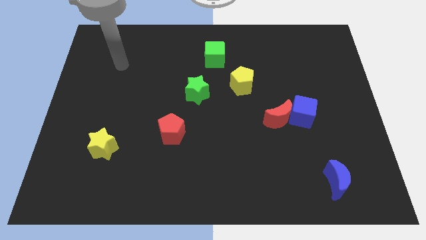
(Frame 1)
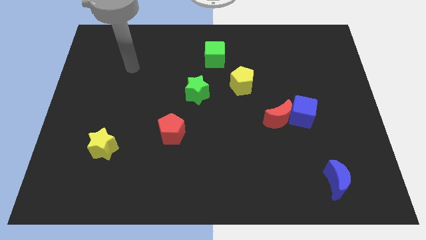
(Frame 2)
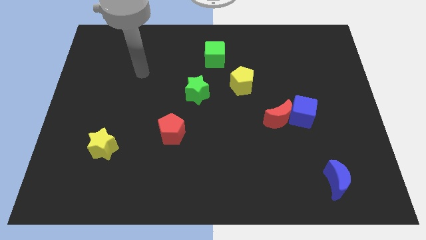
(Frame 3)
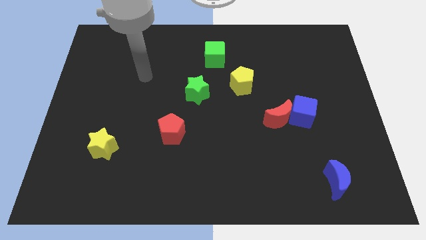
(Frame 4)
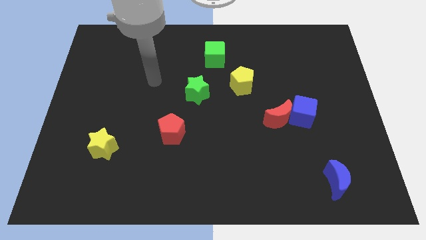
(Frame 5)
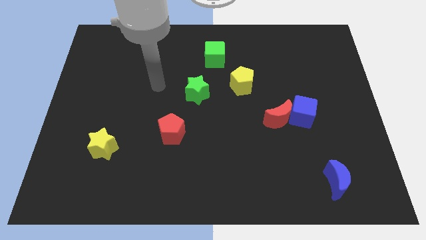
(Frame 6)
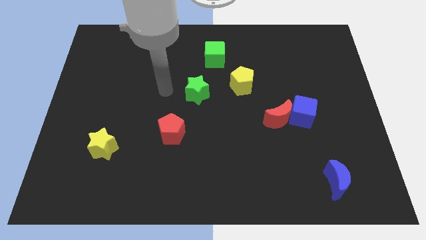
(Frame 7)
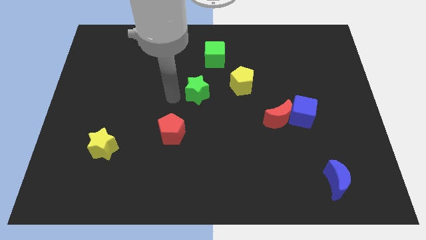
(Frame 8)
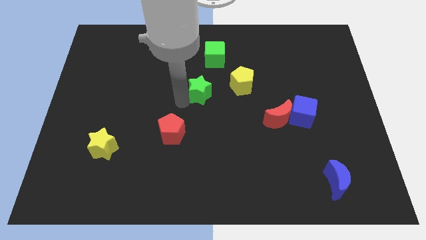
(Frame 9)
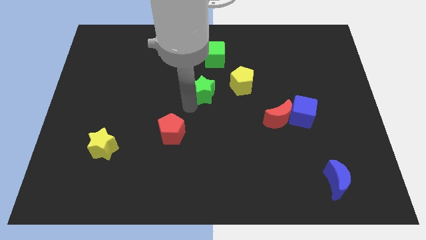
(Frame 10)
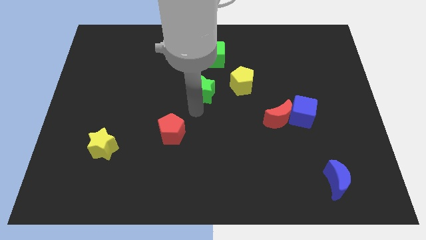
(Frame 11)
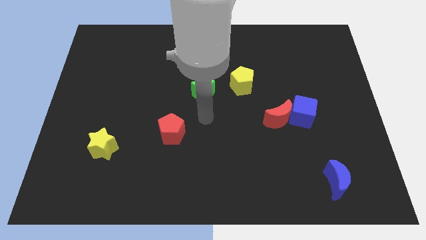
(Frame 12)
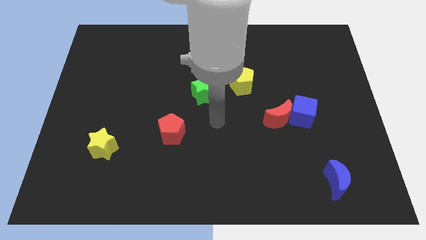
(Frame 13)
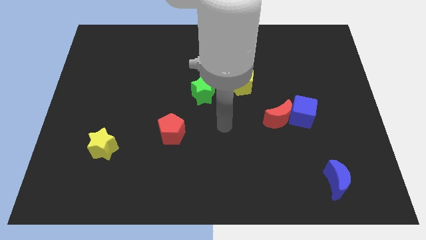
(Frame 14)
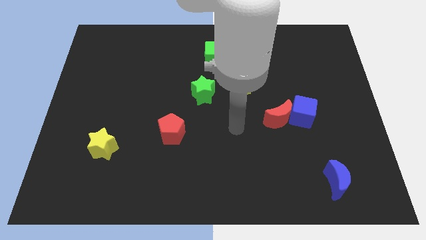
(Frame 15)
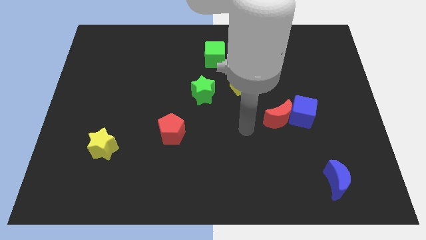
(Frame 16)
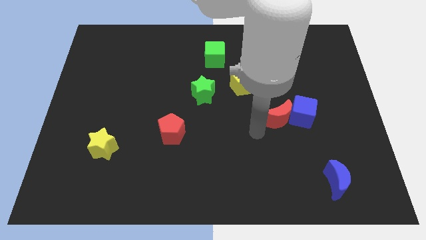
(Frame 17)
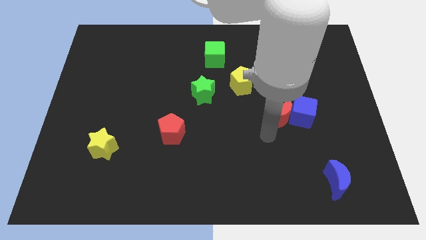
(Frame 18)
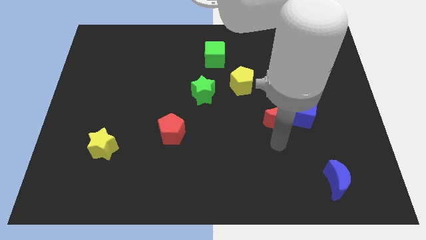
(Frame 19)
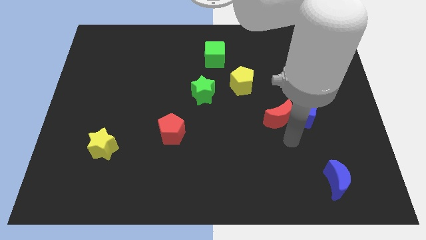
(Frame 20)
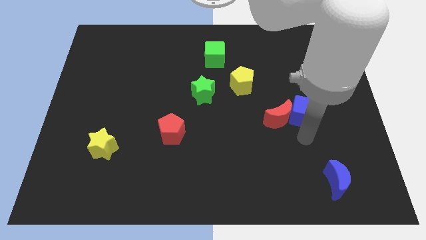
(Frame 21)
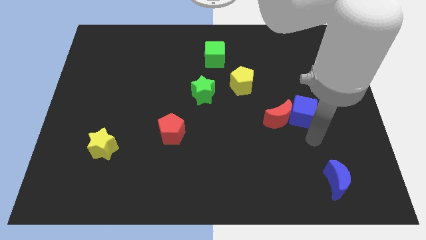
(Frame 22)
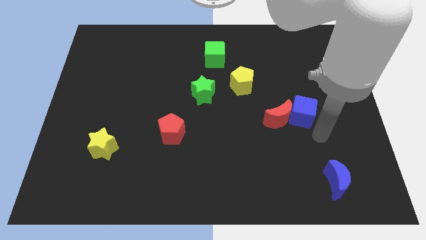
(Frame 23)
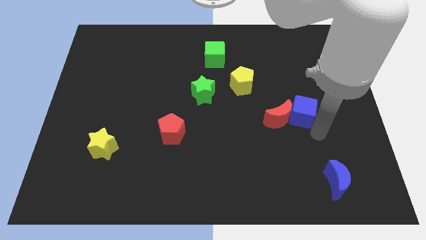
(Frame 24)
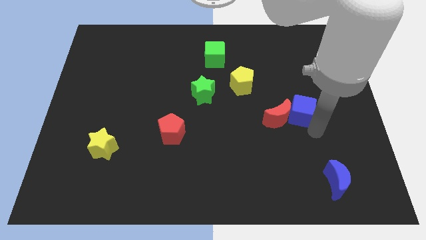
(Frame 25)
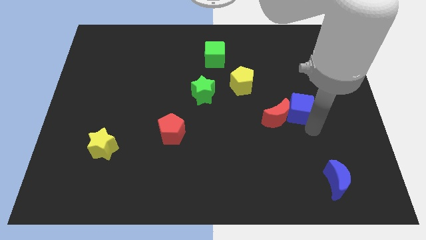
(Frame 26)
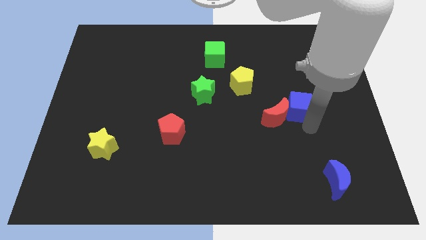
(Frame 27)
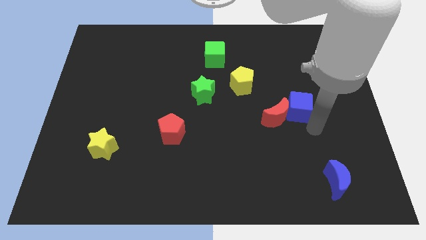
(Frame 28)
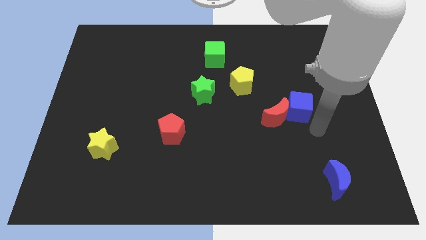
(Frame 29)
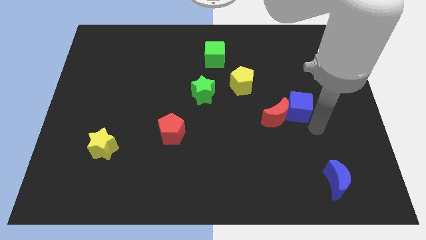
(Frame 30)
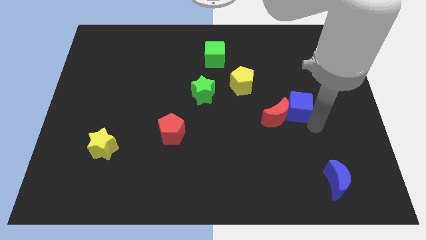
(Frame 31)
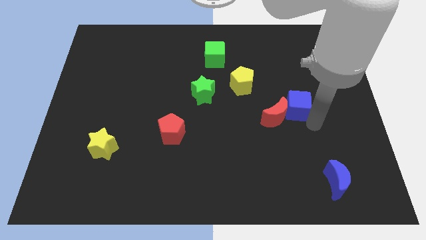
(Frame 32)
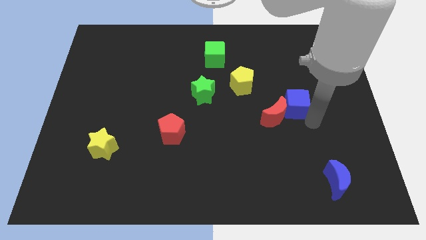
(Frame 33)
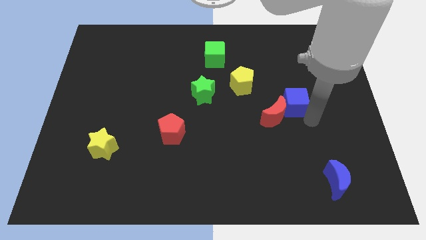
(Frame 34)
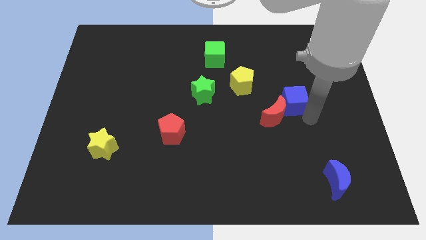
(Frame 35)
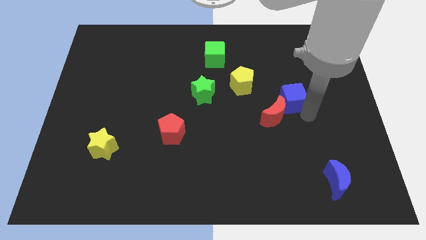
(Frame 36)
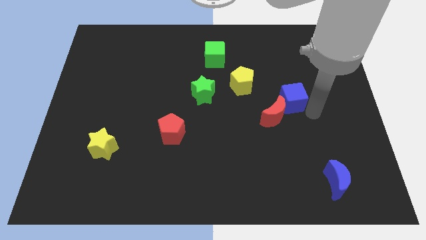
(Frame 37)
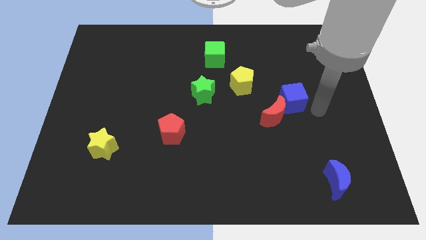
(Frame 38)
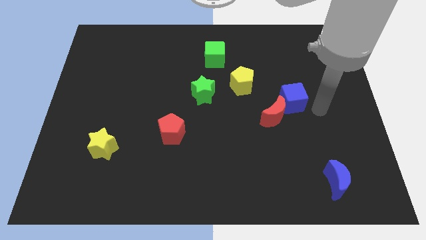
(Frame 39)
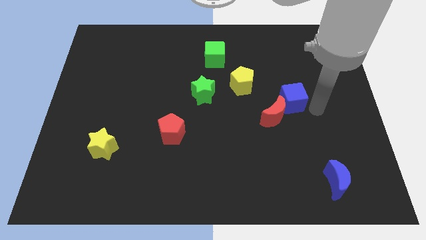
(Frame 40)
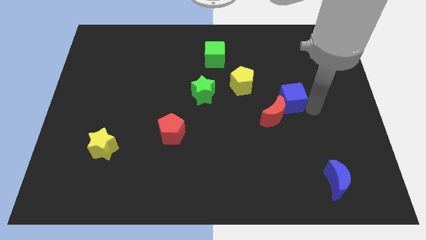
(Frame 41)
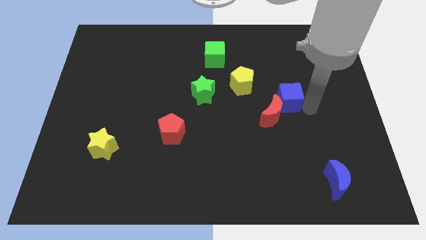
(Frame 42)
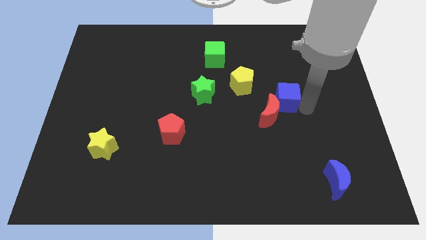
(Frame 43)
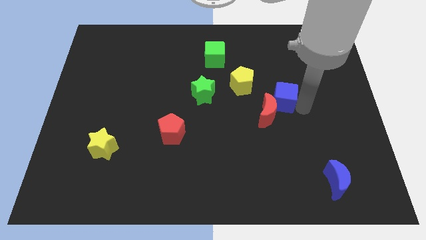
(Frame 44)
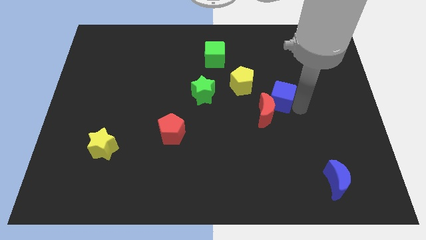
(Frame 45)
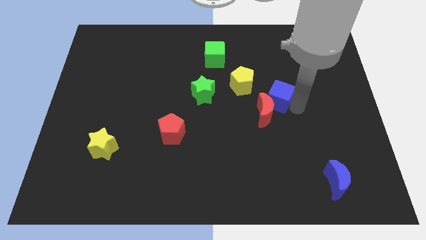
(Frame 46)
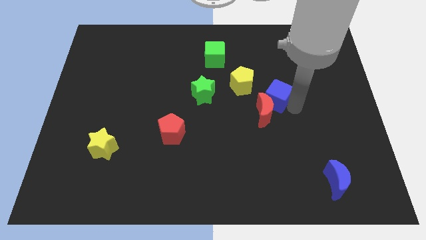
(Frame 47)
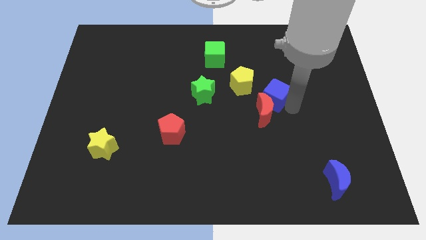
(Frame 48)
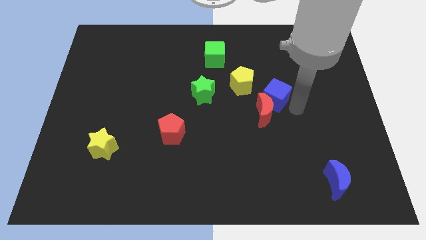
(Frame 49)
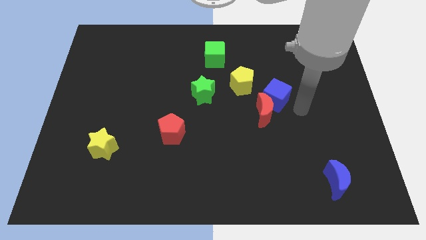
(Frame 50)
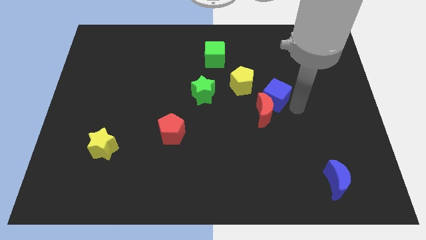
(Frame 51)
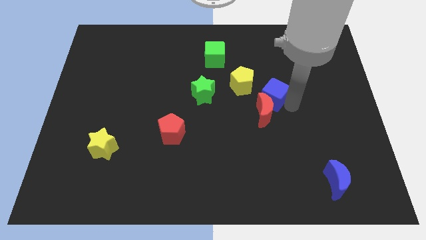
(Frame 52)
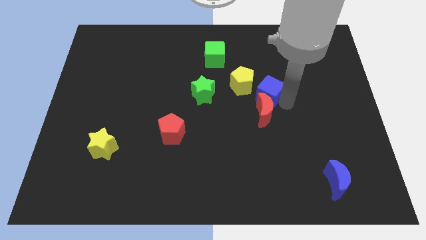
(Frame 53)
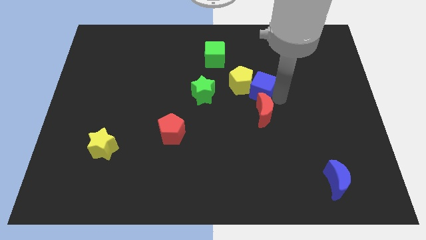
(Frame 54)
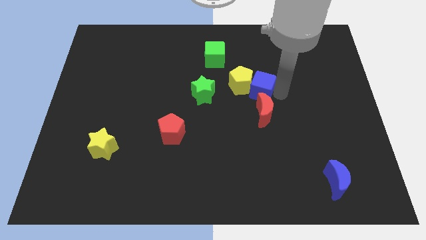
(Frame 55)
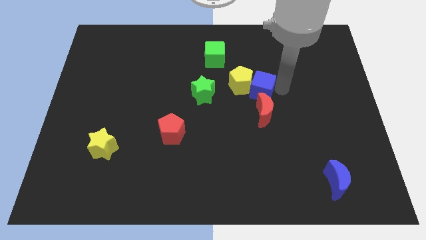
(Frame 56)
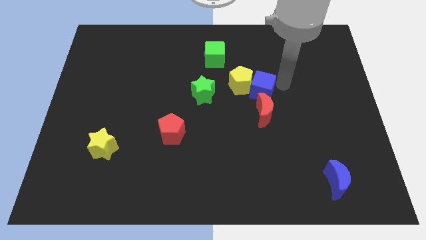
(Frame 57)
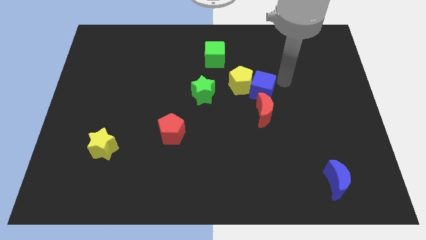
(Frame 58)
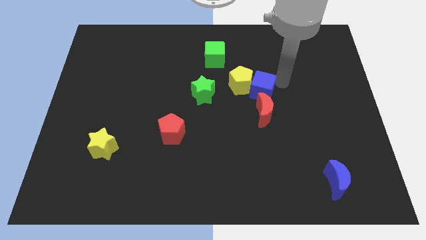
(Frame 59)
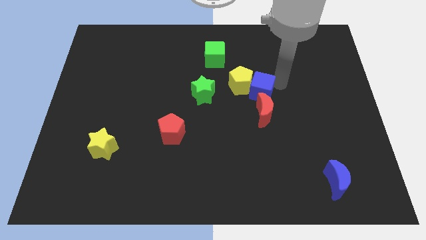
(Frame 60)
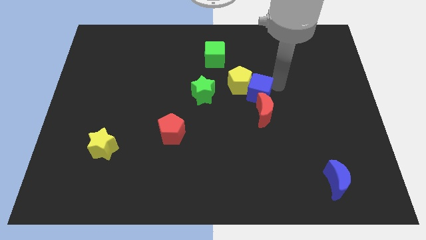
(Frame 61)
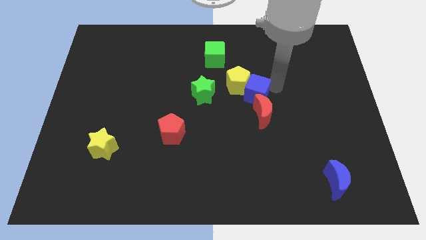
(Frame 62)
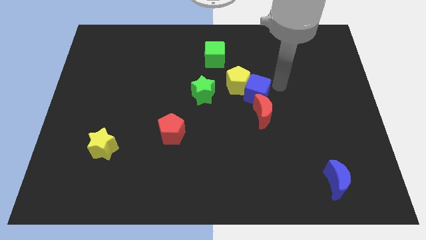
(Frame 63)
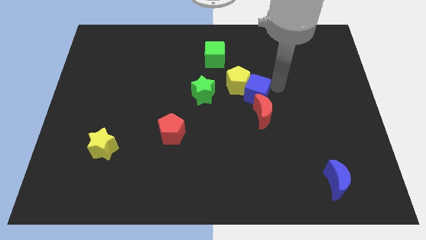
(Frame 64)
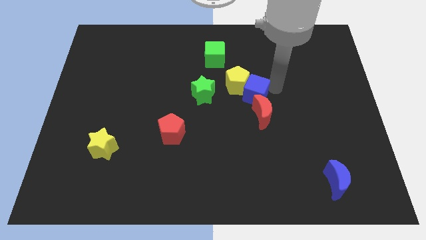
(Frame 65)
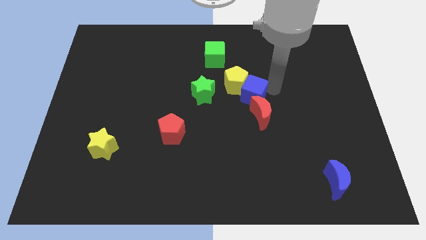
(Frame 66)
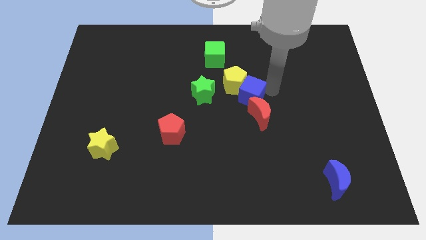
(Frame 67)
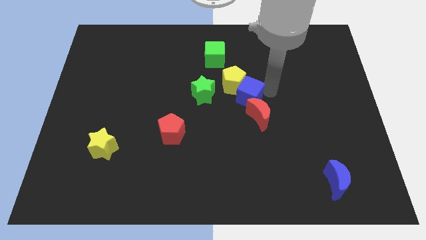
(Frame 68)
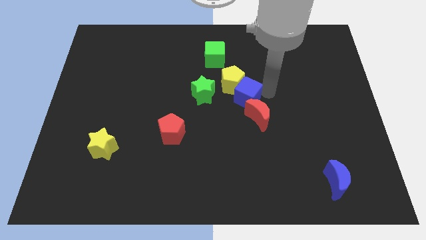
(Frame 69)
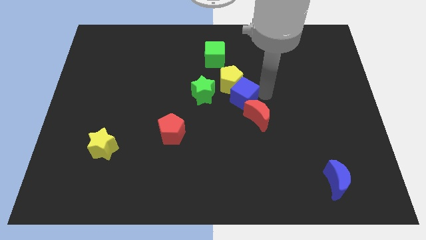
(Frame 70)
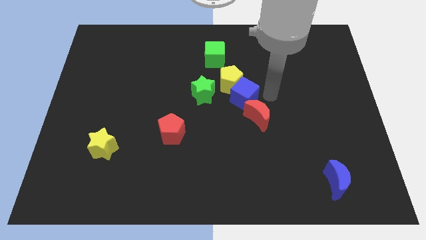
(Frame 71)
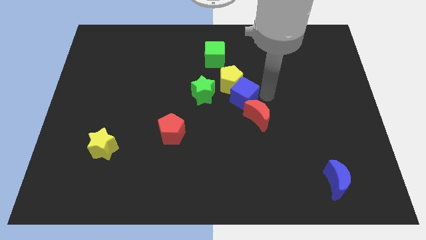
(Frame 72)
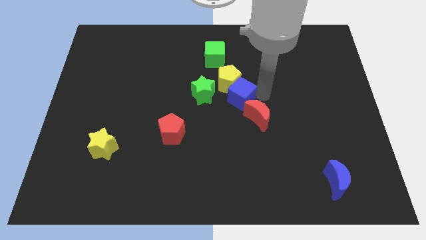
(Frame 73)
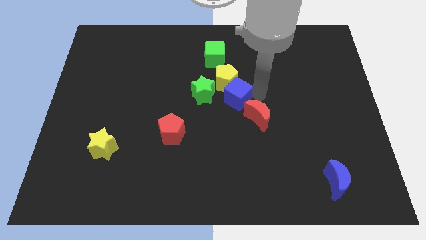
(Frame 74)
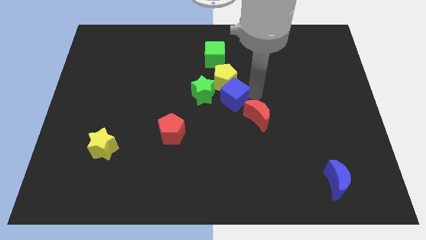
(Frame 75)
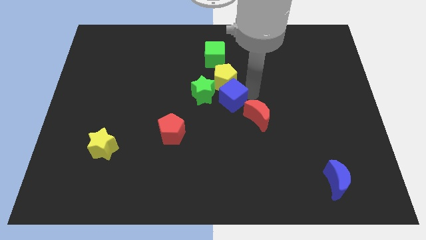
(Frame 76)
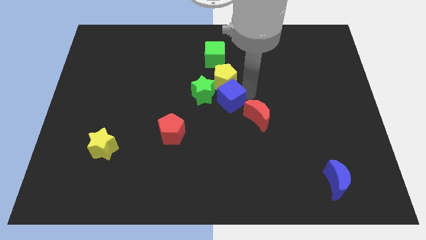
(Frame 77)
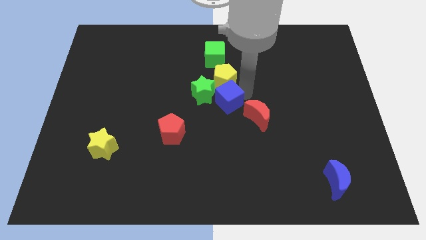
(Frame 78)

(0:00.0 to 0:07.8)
move the blue cube diagonally down and to the left of the yellow pentagon
